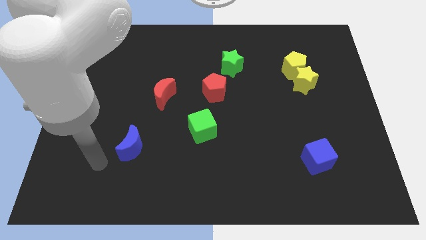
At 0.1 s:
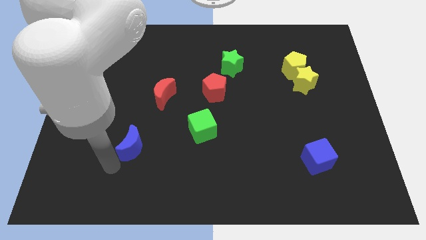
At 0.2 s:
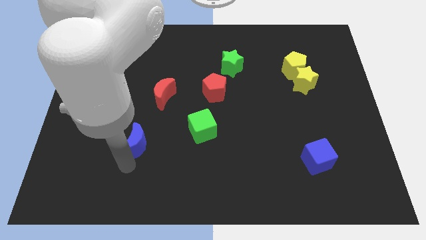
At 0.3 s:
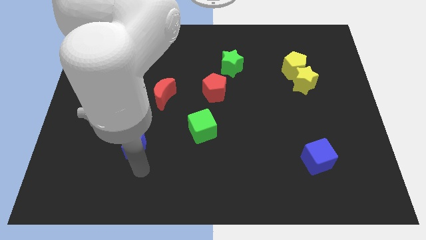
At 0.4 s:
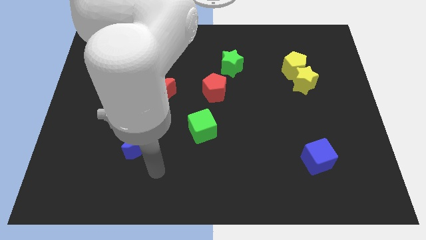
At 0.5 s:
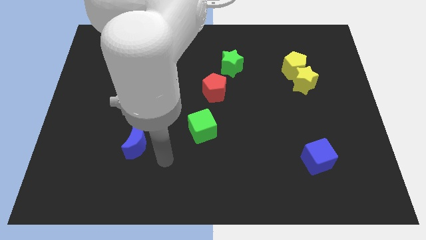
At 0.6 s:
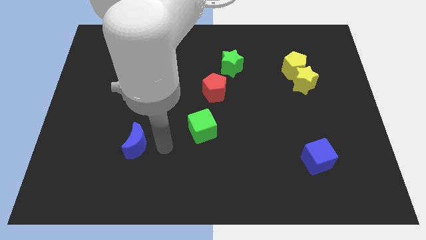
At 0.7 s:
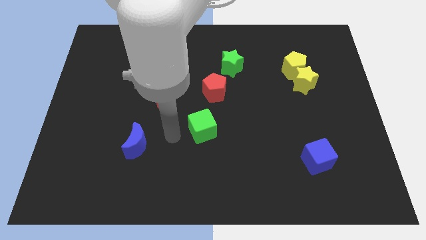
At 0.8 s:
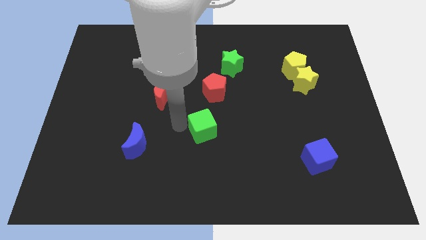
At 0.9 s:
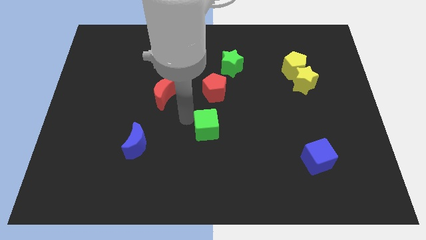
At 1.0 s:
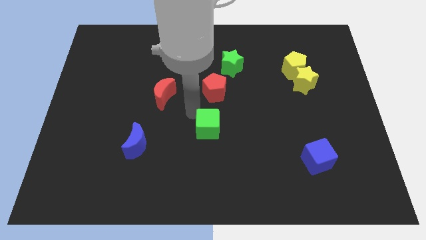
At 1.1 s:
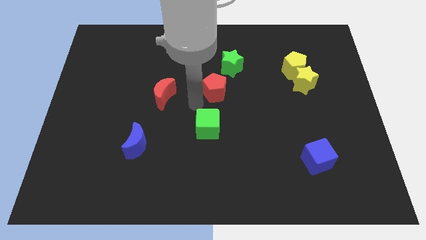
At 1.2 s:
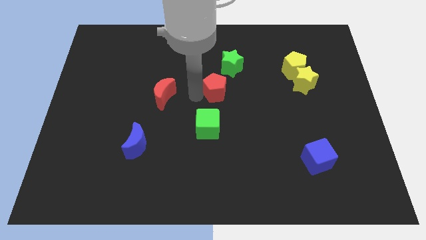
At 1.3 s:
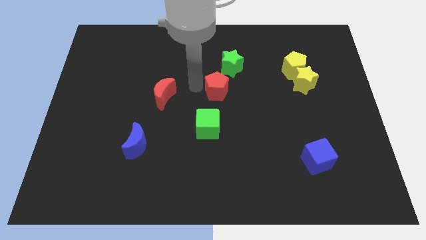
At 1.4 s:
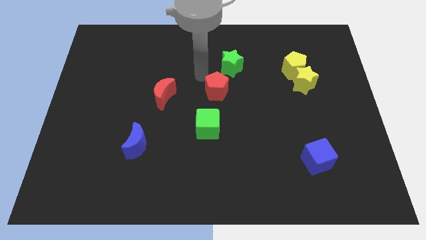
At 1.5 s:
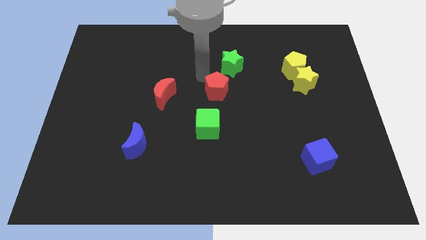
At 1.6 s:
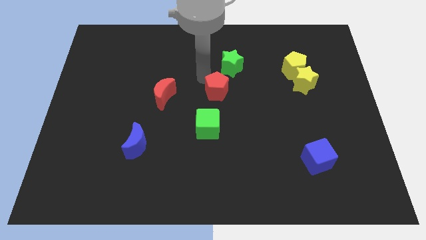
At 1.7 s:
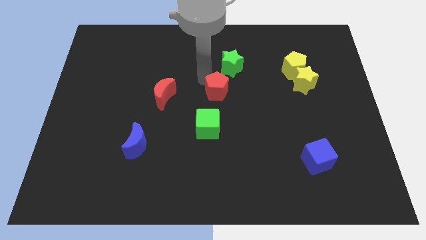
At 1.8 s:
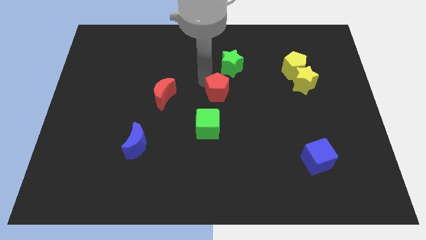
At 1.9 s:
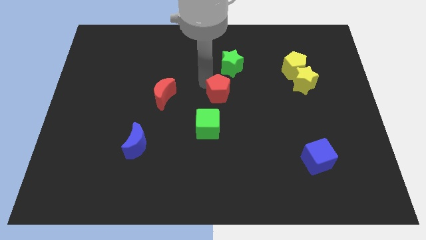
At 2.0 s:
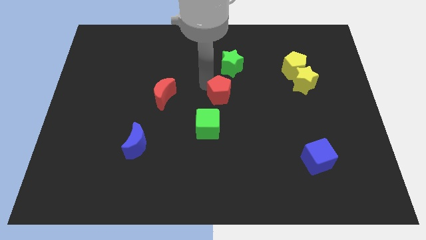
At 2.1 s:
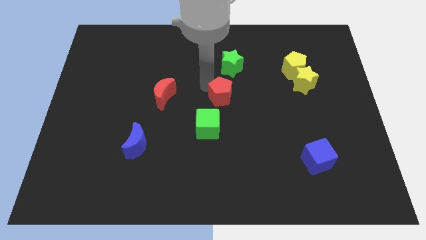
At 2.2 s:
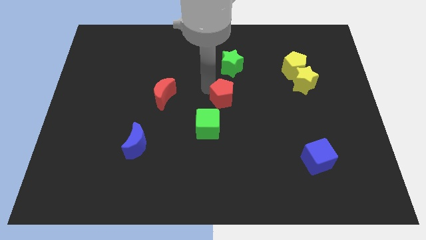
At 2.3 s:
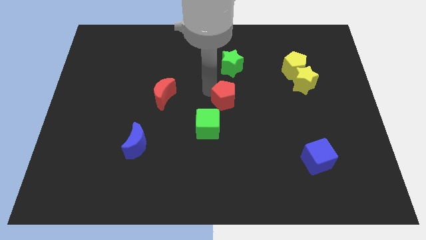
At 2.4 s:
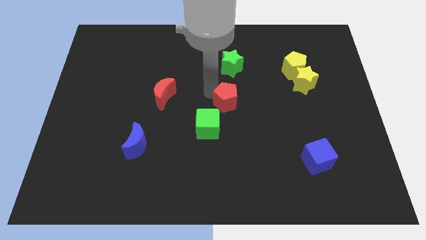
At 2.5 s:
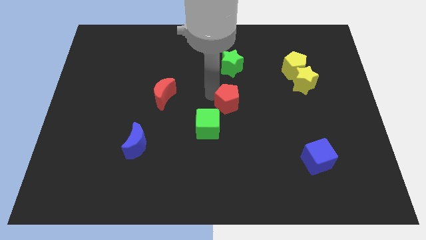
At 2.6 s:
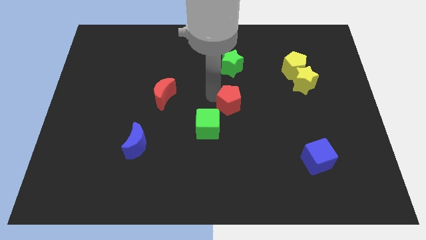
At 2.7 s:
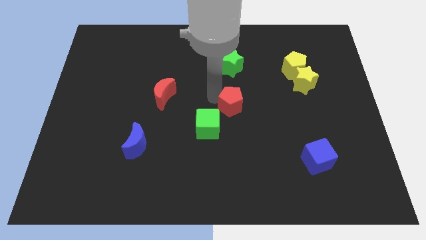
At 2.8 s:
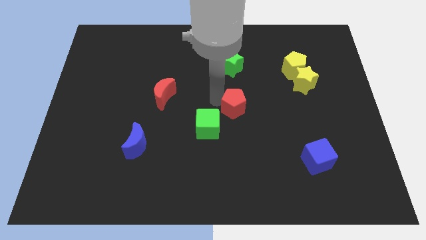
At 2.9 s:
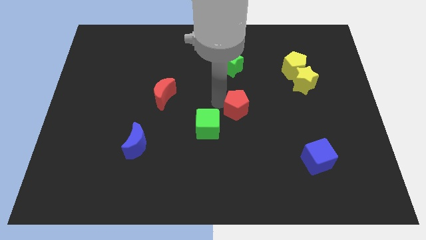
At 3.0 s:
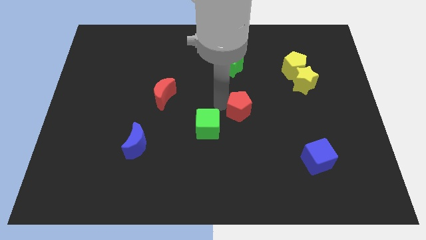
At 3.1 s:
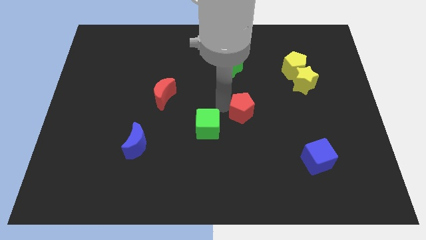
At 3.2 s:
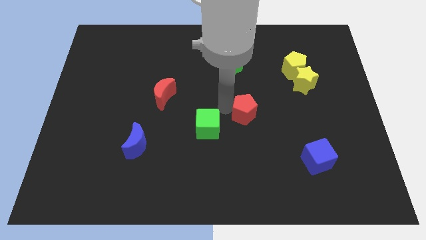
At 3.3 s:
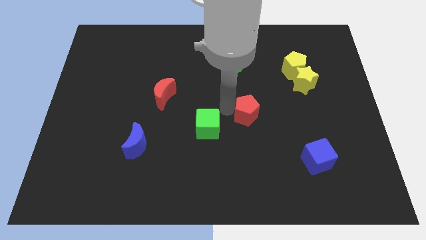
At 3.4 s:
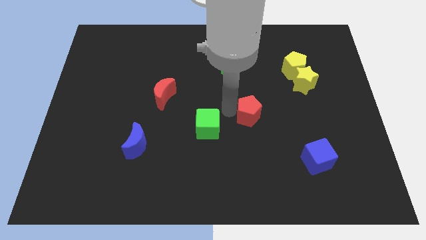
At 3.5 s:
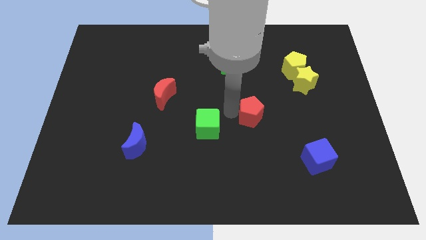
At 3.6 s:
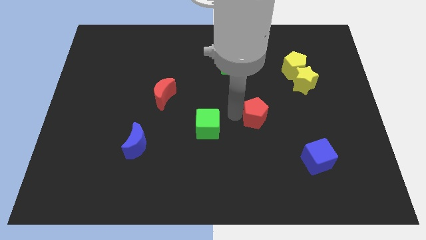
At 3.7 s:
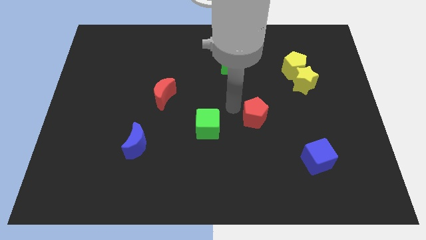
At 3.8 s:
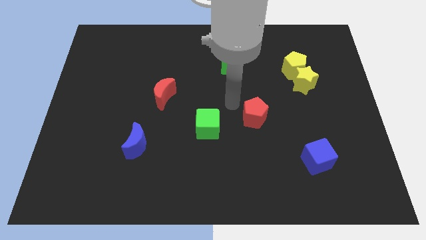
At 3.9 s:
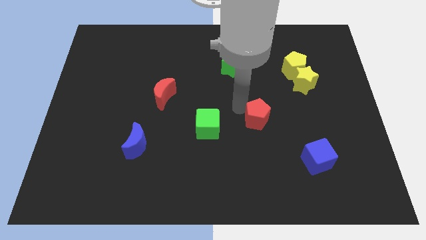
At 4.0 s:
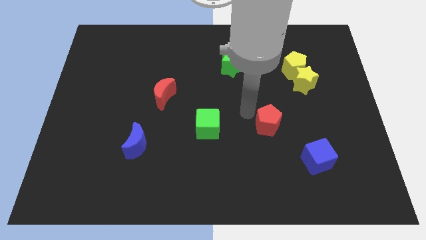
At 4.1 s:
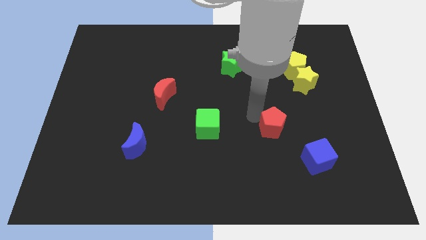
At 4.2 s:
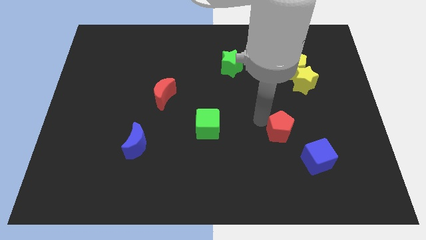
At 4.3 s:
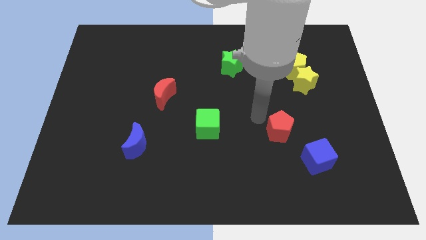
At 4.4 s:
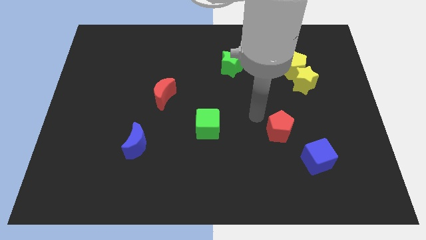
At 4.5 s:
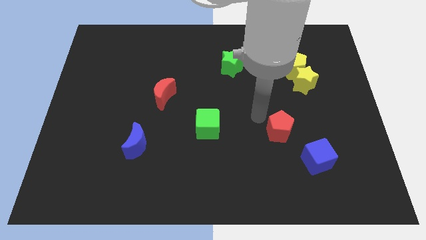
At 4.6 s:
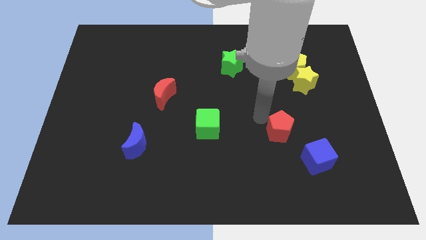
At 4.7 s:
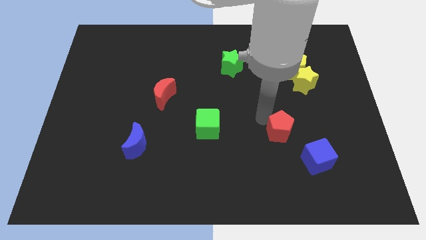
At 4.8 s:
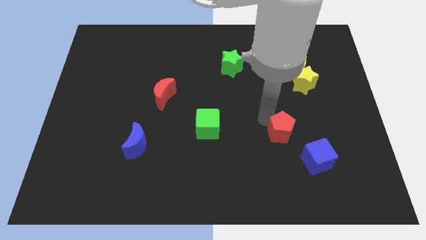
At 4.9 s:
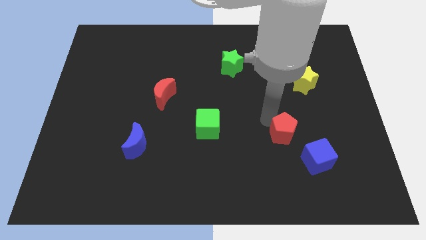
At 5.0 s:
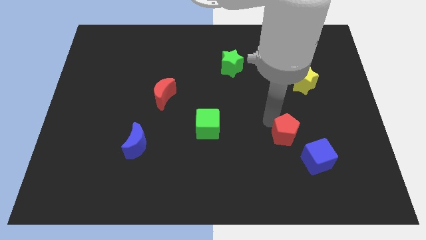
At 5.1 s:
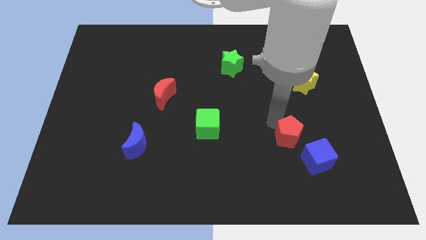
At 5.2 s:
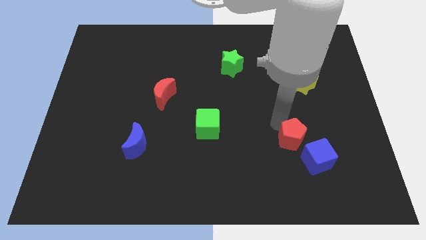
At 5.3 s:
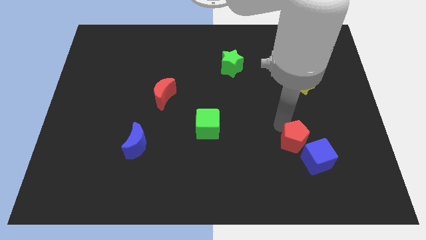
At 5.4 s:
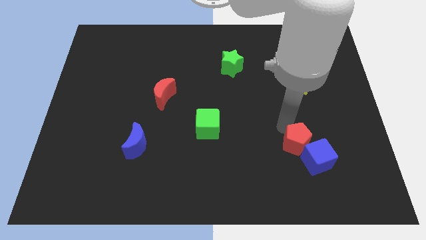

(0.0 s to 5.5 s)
put the red pentagon towards the blue cube

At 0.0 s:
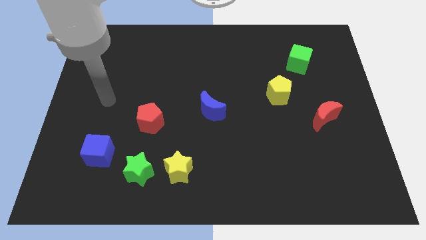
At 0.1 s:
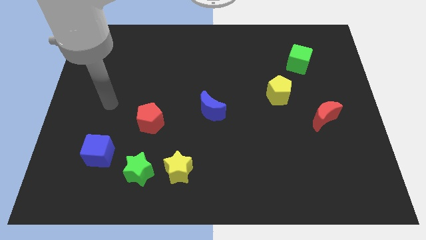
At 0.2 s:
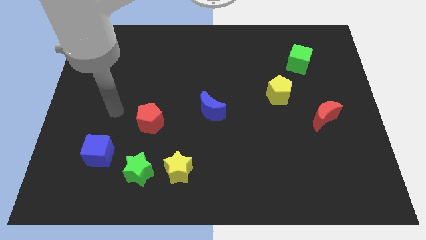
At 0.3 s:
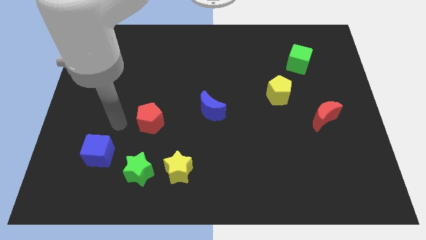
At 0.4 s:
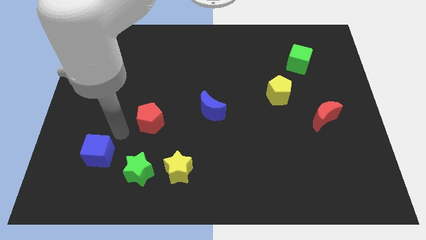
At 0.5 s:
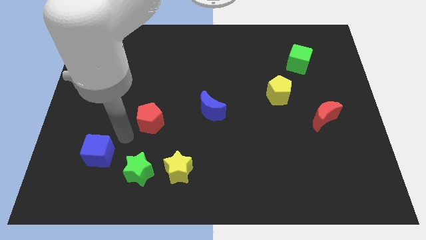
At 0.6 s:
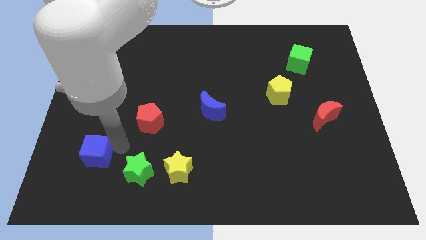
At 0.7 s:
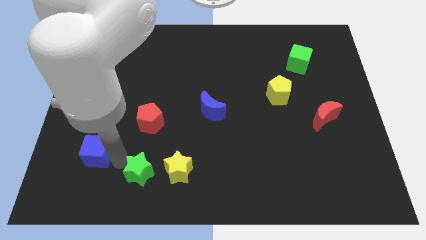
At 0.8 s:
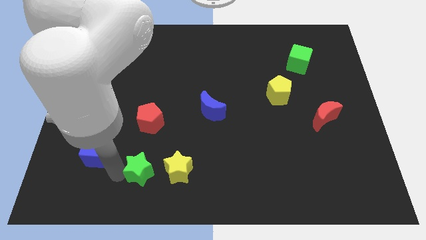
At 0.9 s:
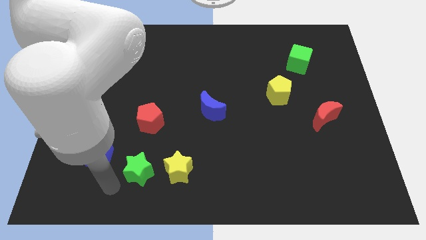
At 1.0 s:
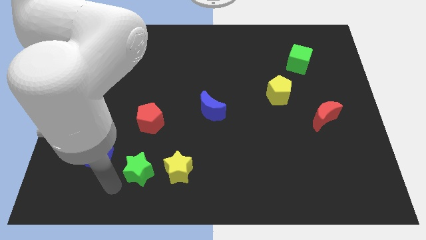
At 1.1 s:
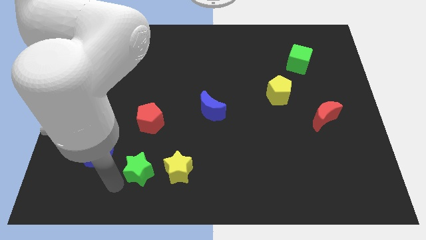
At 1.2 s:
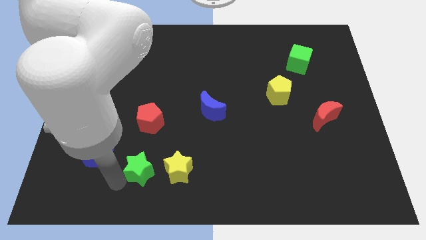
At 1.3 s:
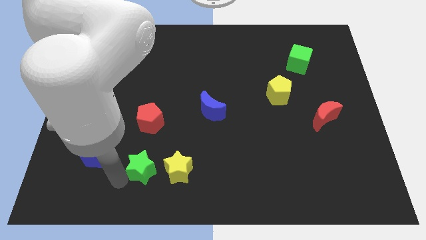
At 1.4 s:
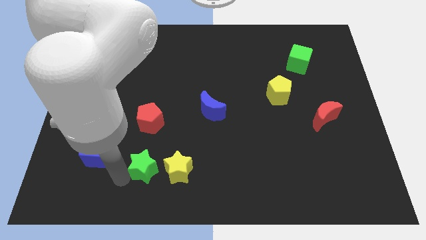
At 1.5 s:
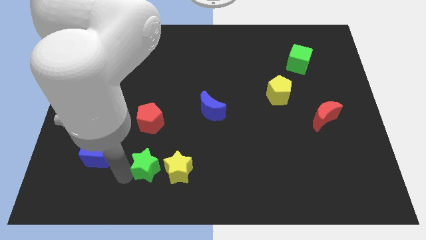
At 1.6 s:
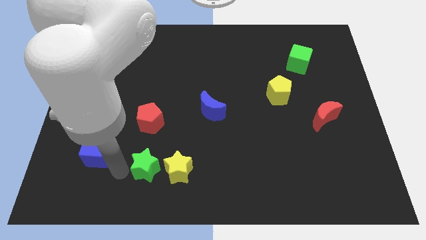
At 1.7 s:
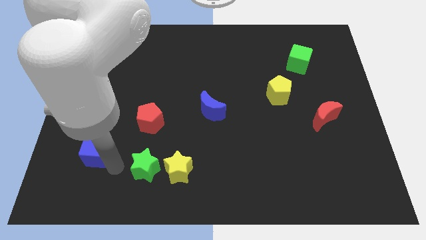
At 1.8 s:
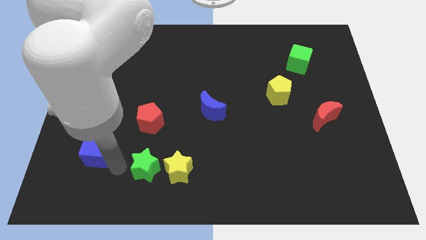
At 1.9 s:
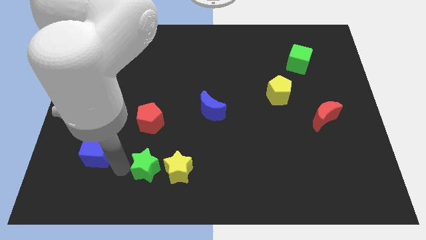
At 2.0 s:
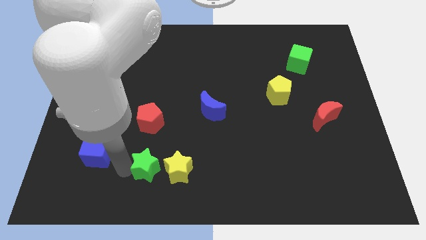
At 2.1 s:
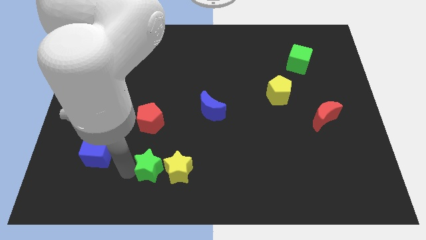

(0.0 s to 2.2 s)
put the green star close to the yellow star
